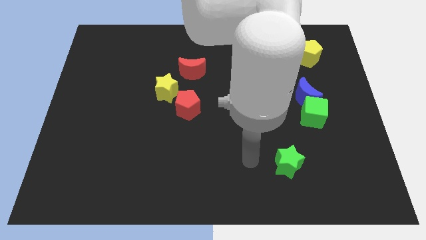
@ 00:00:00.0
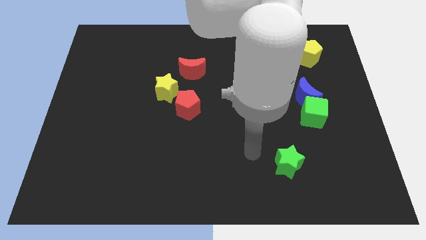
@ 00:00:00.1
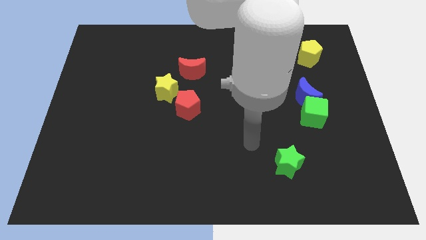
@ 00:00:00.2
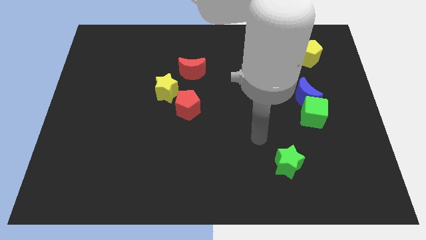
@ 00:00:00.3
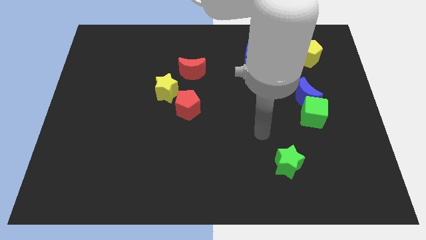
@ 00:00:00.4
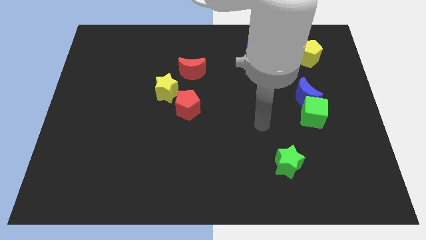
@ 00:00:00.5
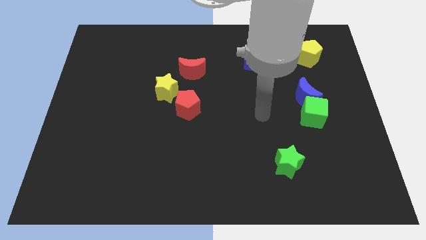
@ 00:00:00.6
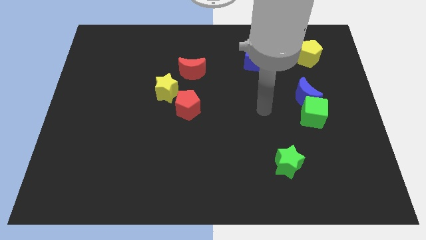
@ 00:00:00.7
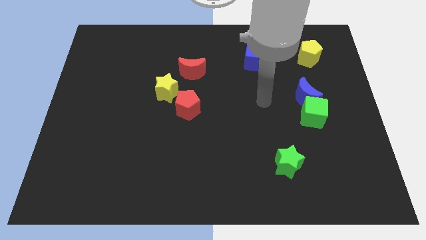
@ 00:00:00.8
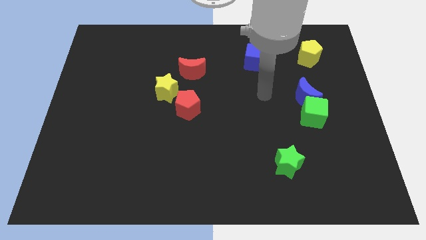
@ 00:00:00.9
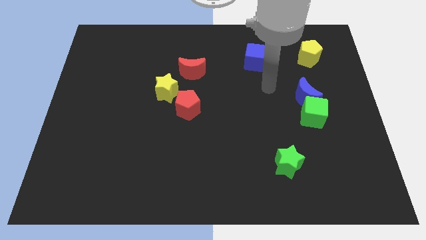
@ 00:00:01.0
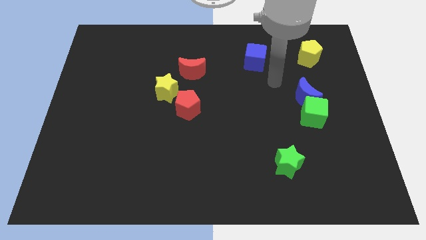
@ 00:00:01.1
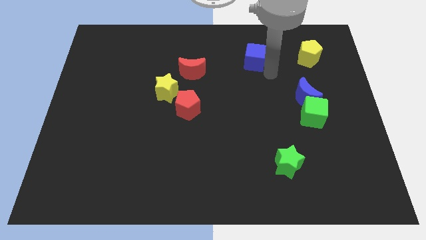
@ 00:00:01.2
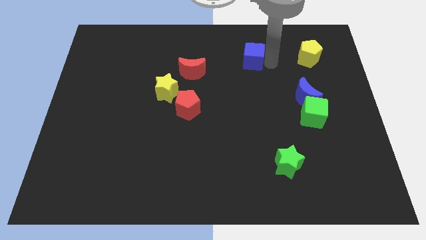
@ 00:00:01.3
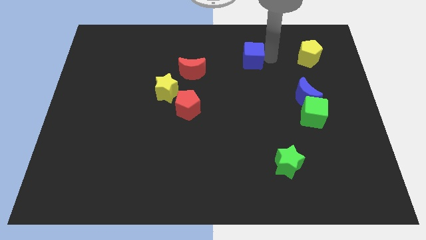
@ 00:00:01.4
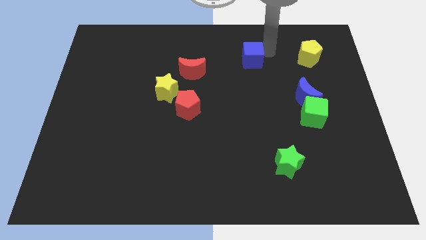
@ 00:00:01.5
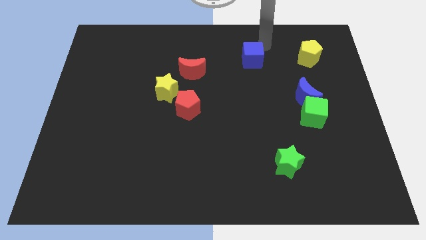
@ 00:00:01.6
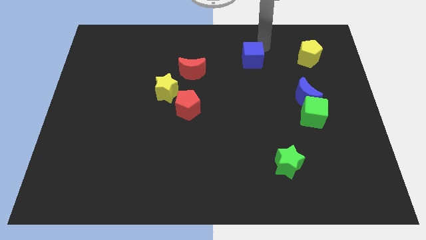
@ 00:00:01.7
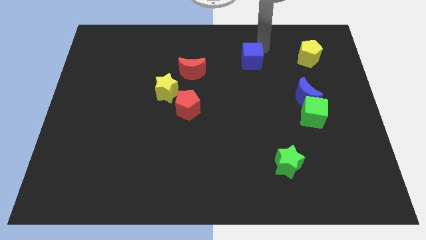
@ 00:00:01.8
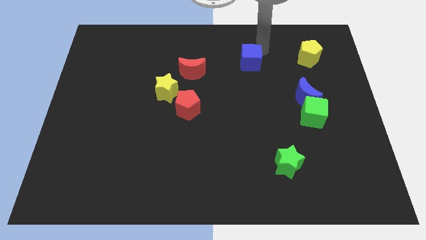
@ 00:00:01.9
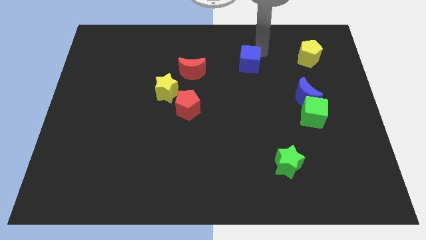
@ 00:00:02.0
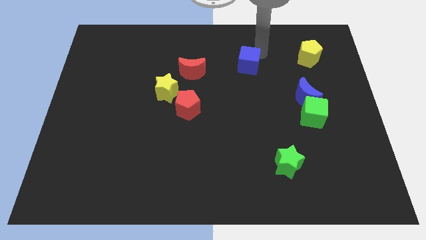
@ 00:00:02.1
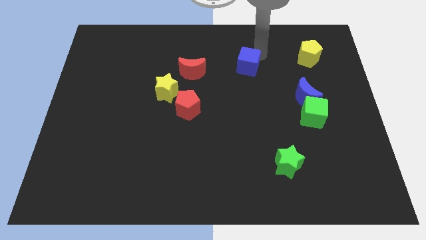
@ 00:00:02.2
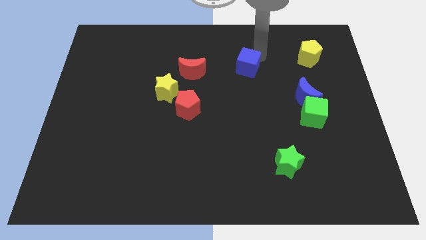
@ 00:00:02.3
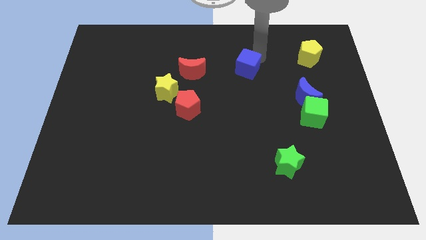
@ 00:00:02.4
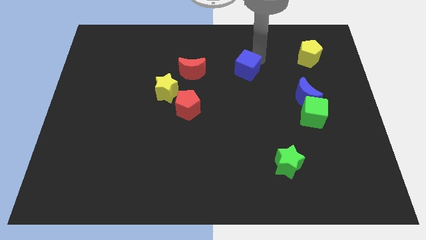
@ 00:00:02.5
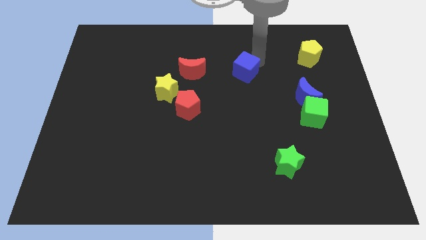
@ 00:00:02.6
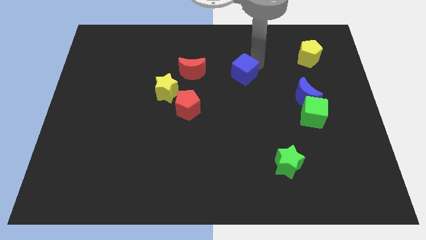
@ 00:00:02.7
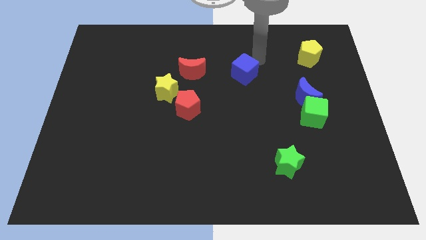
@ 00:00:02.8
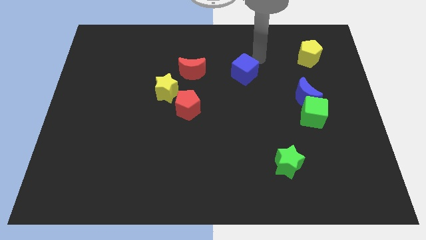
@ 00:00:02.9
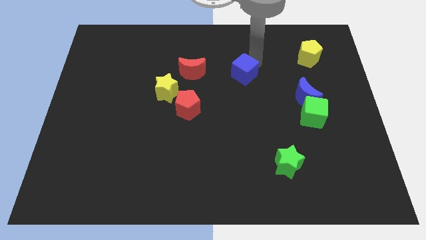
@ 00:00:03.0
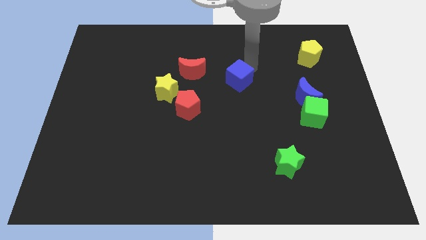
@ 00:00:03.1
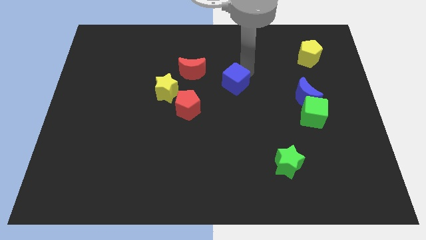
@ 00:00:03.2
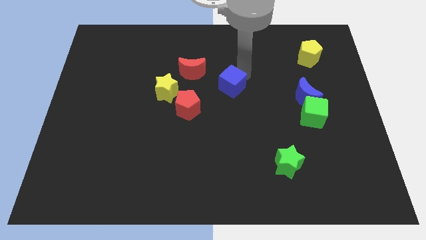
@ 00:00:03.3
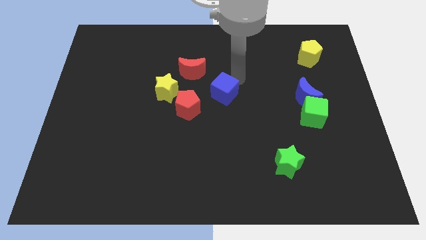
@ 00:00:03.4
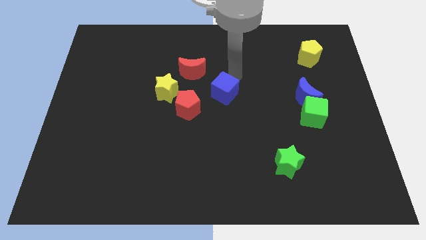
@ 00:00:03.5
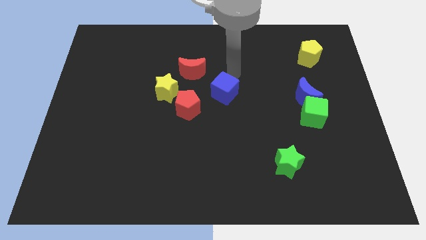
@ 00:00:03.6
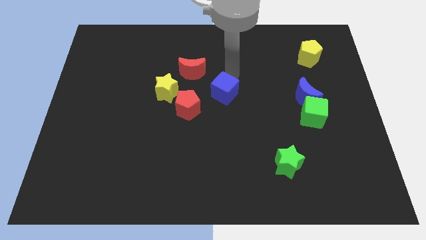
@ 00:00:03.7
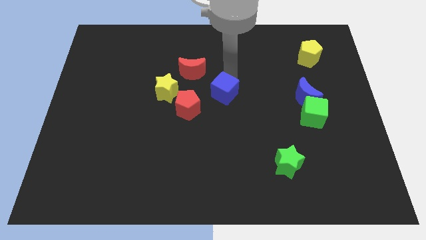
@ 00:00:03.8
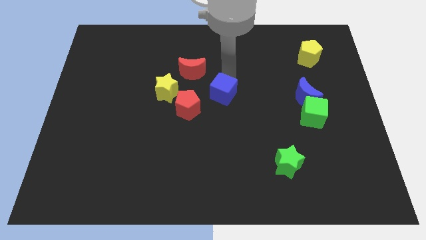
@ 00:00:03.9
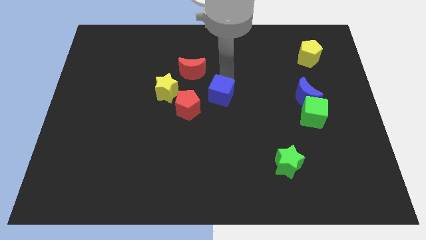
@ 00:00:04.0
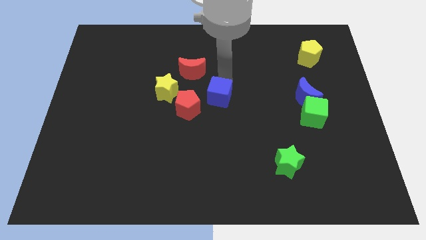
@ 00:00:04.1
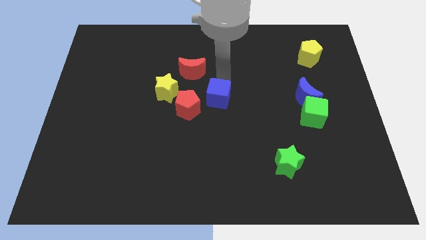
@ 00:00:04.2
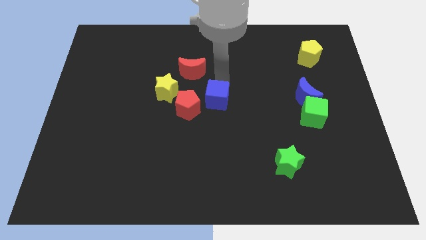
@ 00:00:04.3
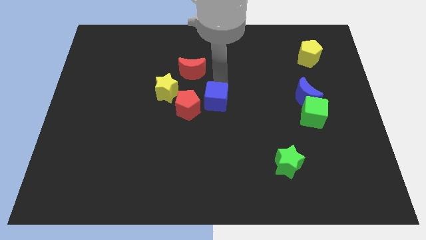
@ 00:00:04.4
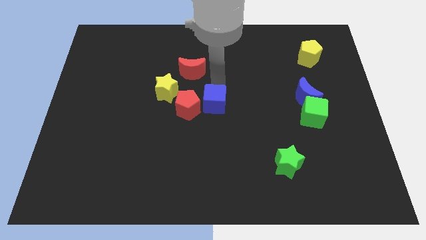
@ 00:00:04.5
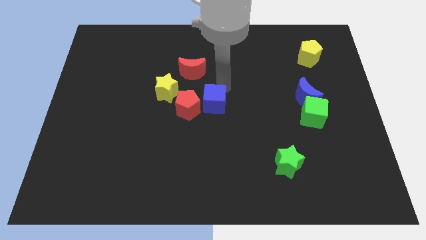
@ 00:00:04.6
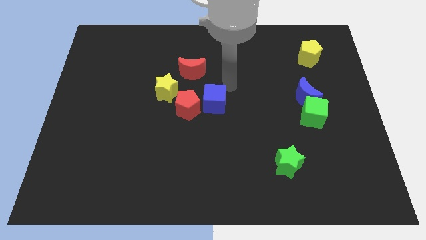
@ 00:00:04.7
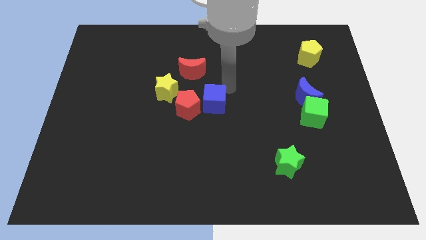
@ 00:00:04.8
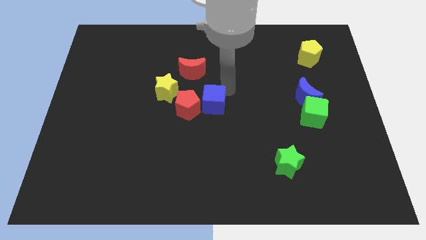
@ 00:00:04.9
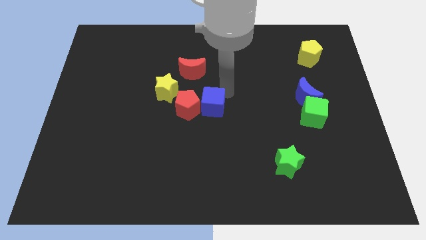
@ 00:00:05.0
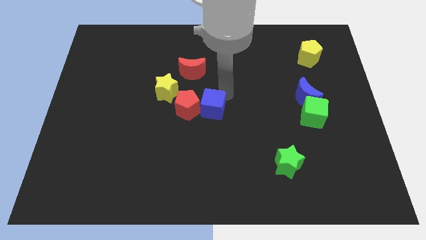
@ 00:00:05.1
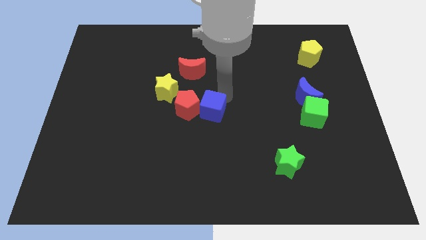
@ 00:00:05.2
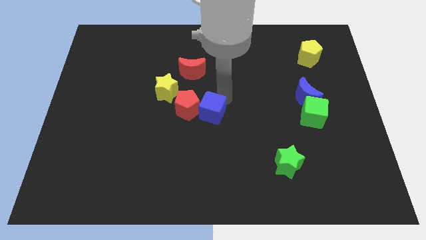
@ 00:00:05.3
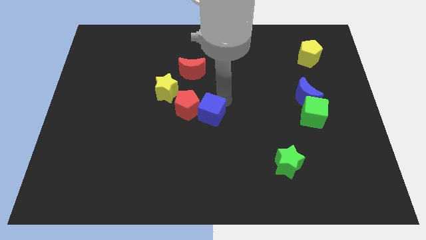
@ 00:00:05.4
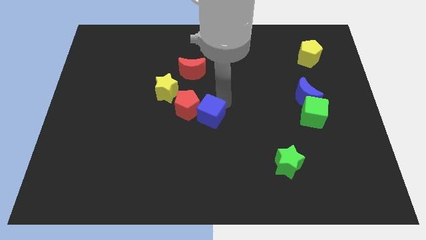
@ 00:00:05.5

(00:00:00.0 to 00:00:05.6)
push the blue cube down and left

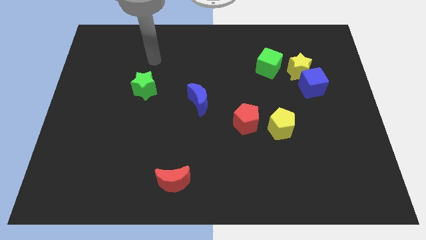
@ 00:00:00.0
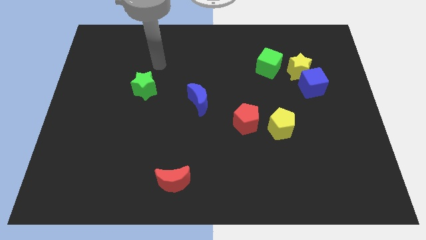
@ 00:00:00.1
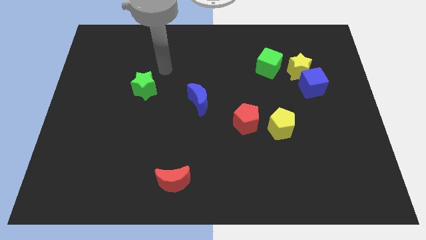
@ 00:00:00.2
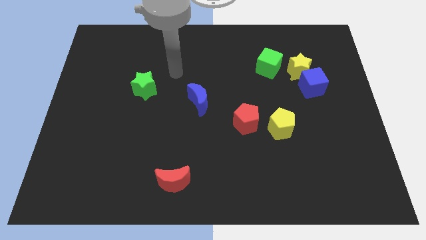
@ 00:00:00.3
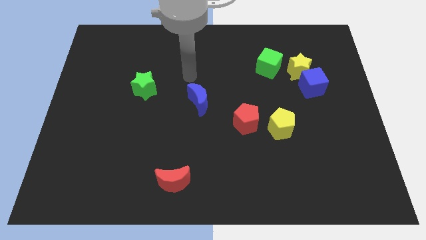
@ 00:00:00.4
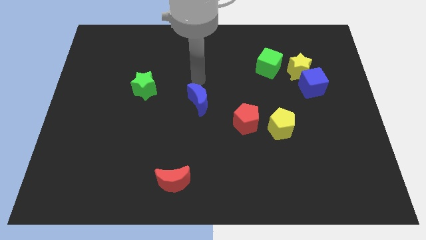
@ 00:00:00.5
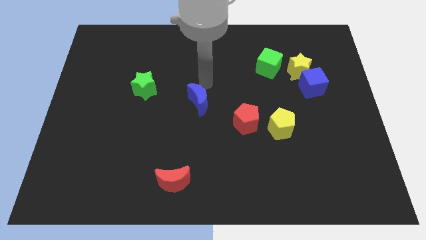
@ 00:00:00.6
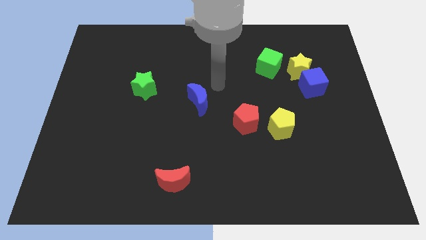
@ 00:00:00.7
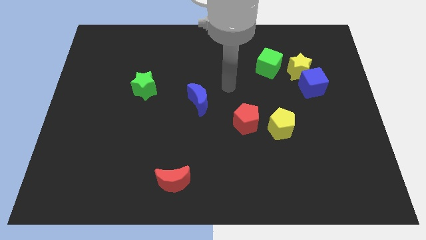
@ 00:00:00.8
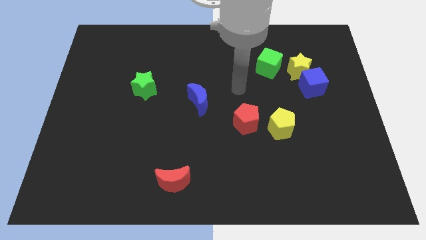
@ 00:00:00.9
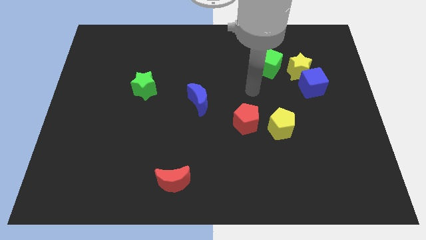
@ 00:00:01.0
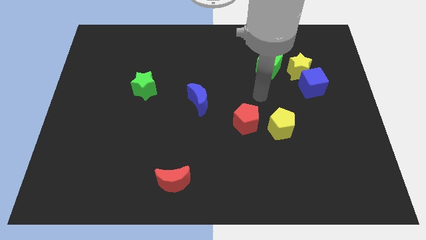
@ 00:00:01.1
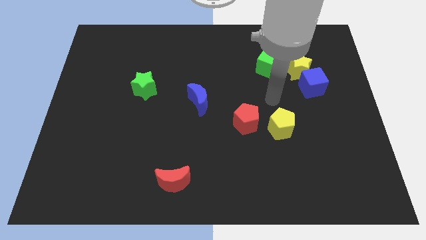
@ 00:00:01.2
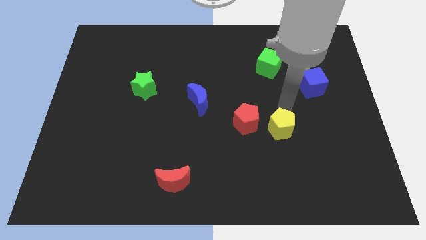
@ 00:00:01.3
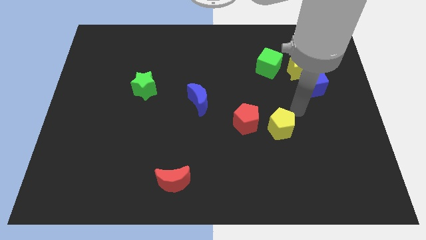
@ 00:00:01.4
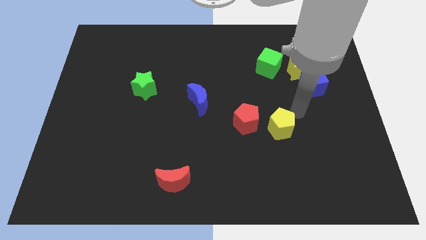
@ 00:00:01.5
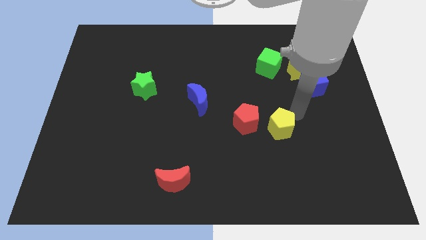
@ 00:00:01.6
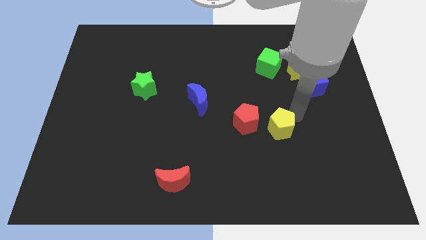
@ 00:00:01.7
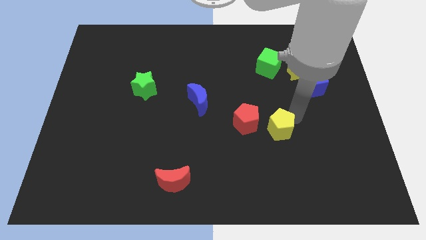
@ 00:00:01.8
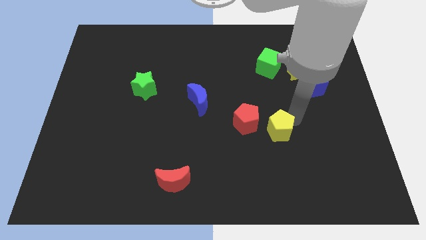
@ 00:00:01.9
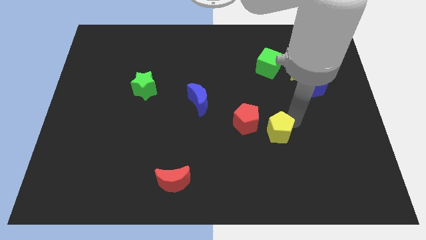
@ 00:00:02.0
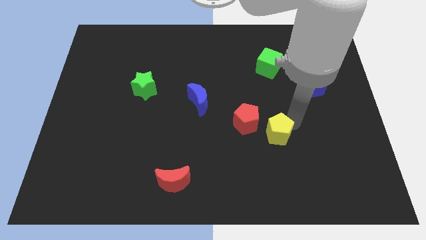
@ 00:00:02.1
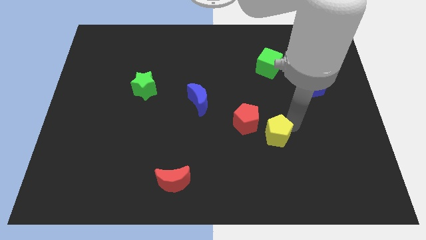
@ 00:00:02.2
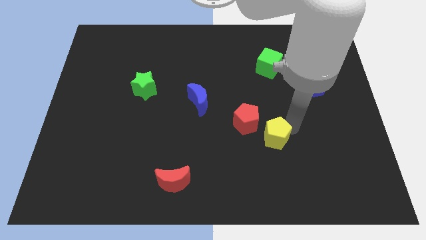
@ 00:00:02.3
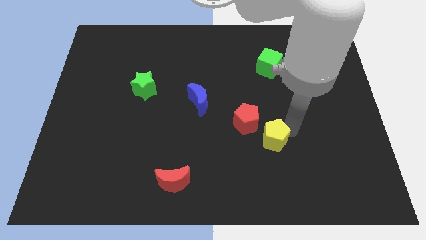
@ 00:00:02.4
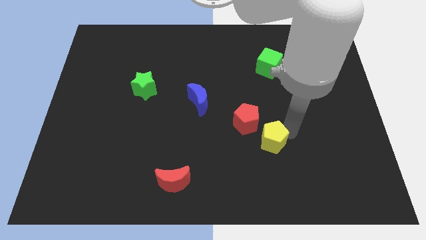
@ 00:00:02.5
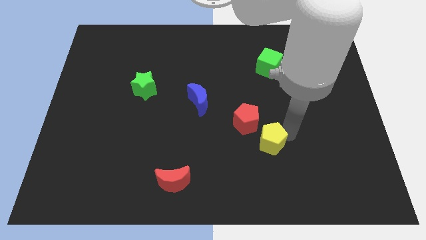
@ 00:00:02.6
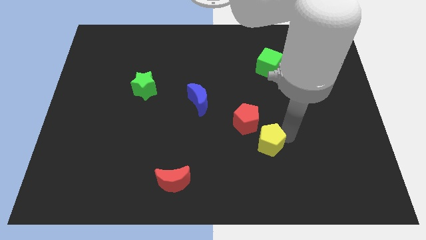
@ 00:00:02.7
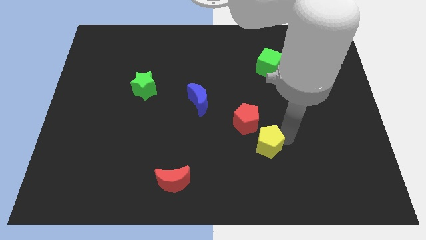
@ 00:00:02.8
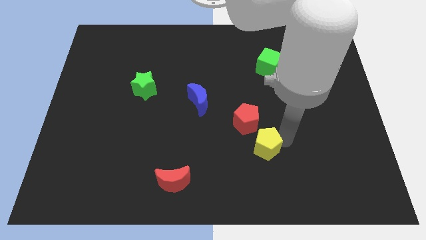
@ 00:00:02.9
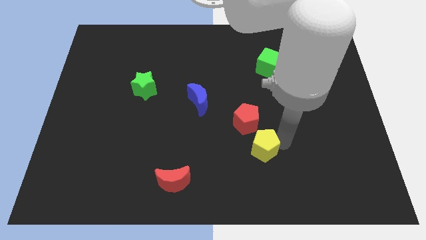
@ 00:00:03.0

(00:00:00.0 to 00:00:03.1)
push the yellow pentagon down and then to the left somewhat
